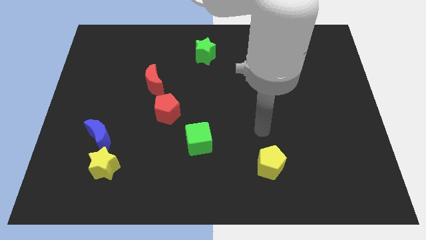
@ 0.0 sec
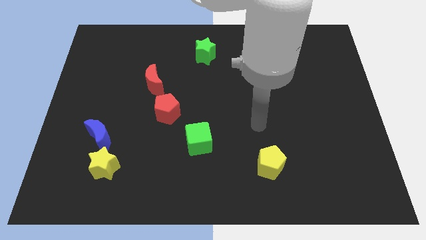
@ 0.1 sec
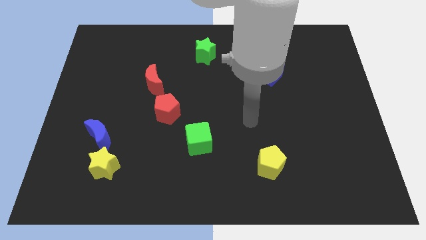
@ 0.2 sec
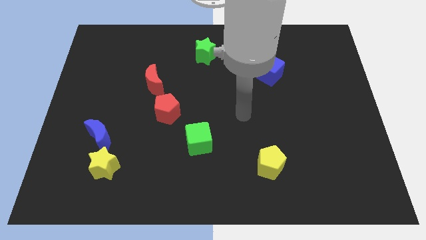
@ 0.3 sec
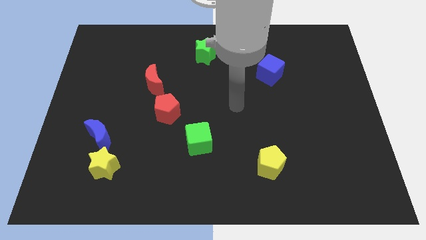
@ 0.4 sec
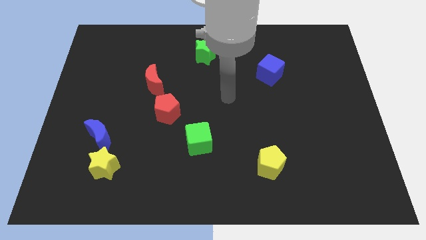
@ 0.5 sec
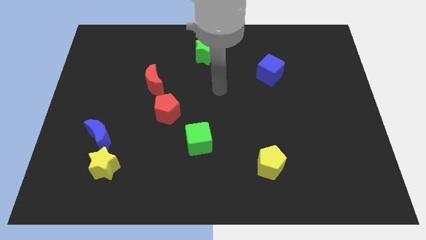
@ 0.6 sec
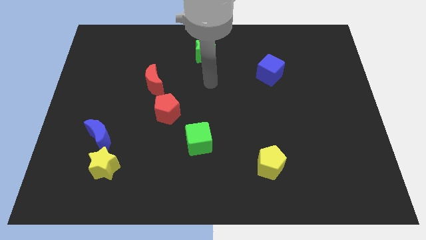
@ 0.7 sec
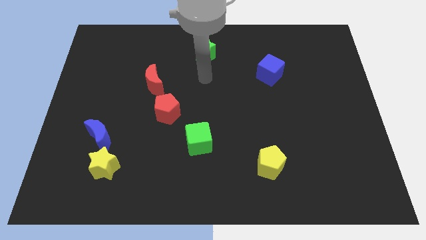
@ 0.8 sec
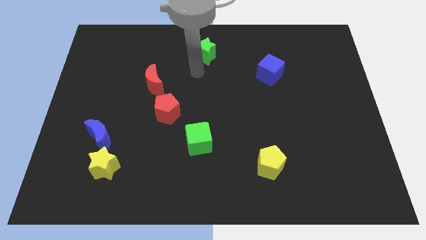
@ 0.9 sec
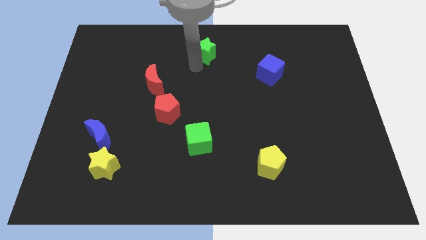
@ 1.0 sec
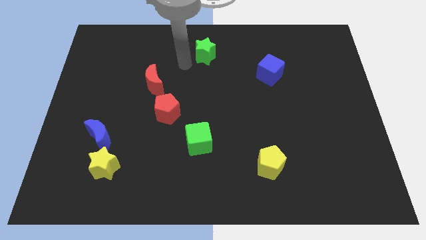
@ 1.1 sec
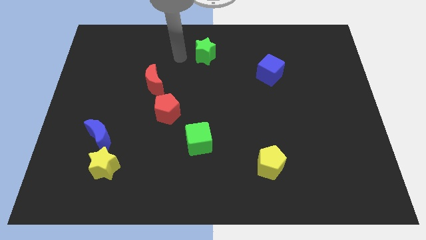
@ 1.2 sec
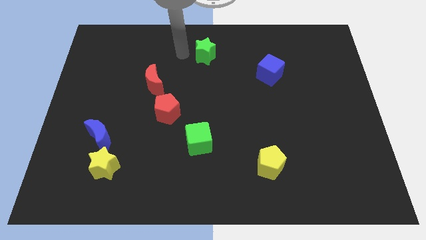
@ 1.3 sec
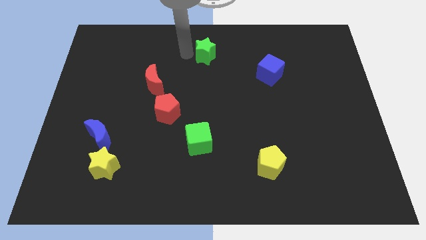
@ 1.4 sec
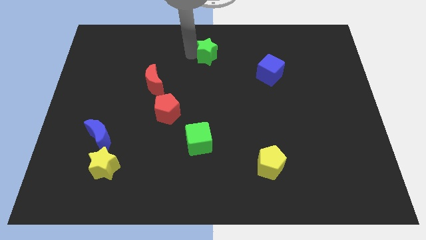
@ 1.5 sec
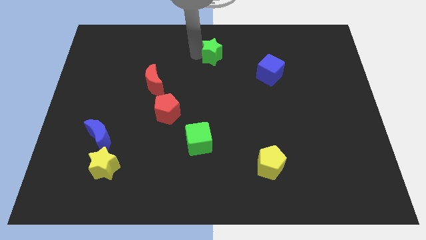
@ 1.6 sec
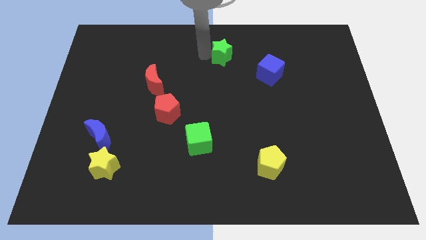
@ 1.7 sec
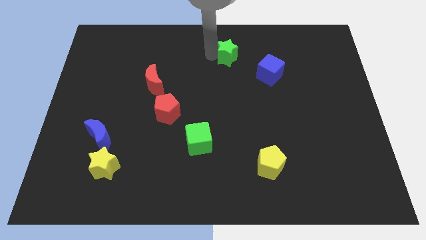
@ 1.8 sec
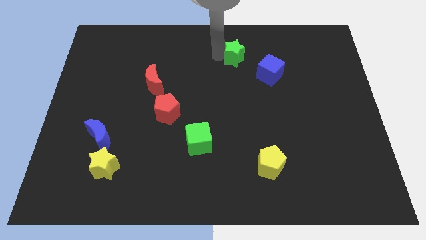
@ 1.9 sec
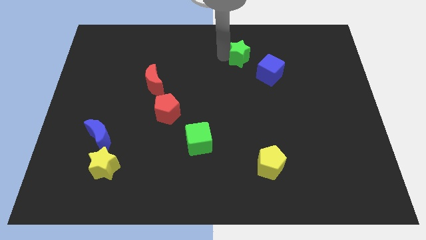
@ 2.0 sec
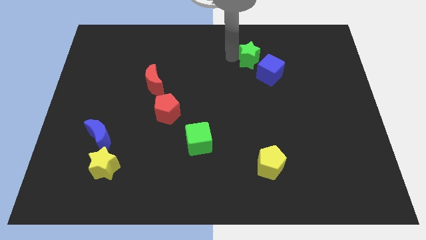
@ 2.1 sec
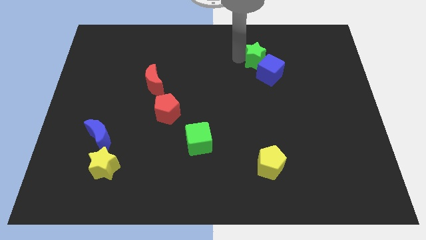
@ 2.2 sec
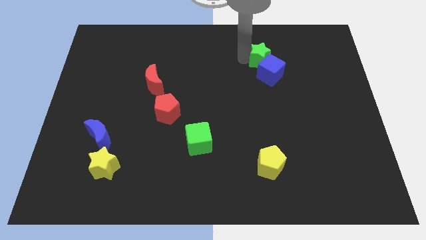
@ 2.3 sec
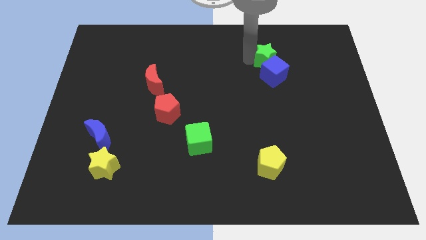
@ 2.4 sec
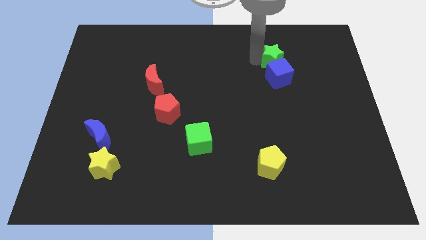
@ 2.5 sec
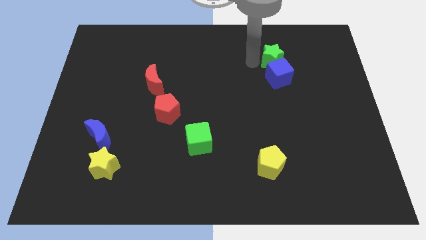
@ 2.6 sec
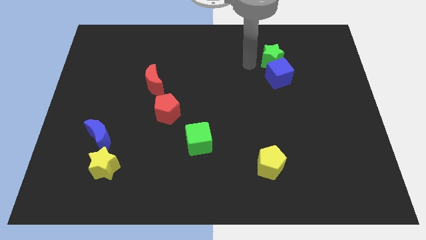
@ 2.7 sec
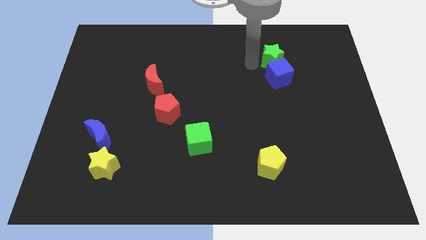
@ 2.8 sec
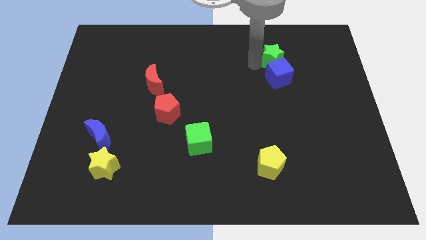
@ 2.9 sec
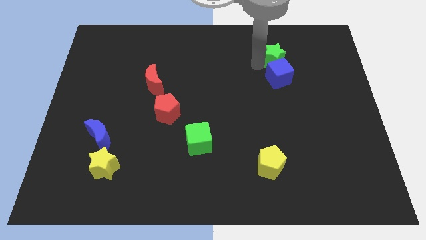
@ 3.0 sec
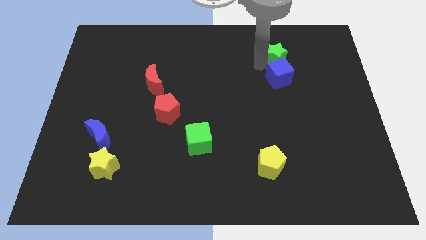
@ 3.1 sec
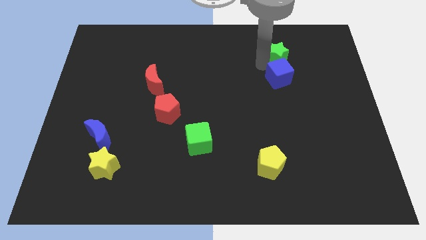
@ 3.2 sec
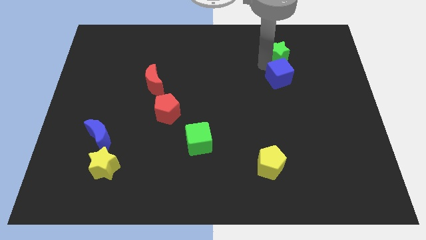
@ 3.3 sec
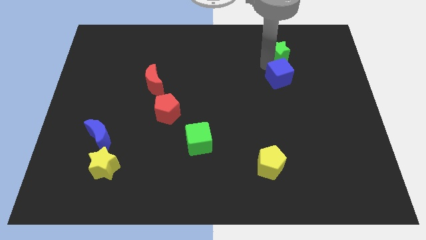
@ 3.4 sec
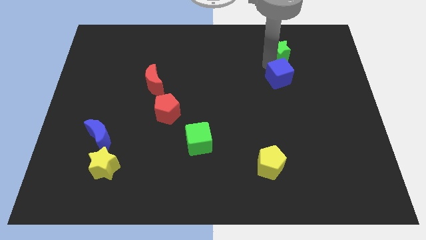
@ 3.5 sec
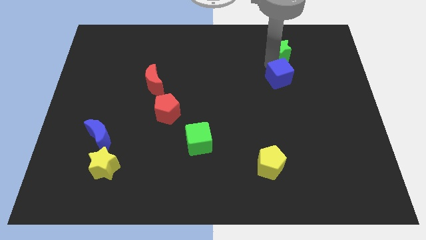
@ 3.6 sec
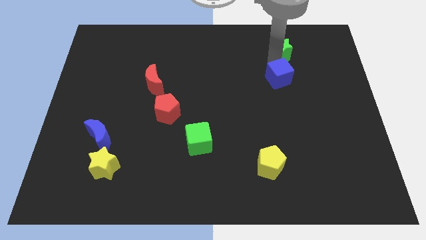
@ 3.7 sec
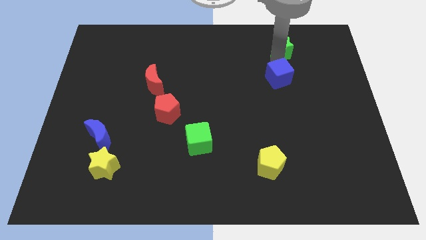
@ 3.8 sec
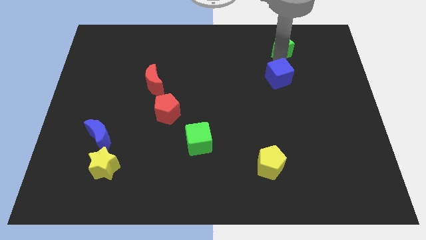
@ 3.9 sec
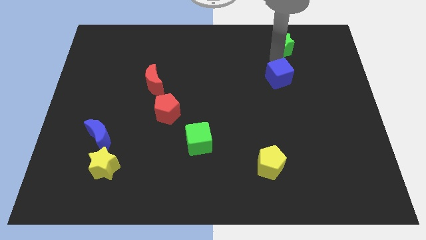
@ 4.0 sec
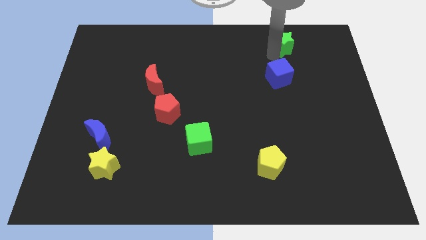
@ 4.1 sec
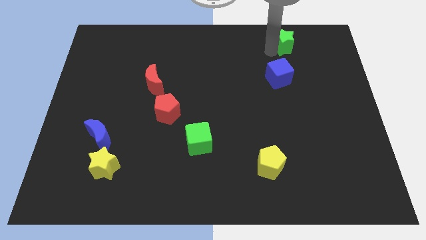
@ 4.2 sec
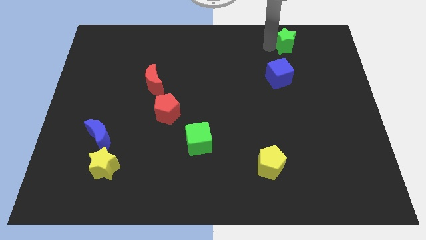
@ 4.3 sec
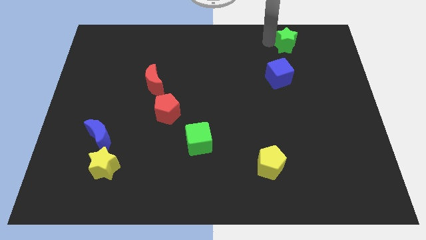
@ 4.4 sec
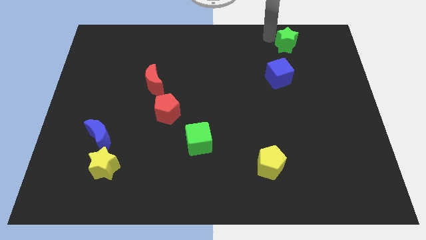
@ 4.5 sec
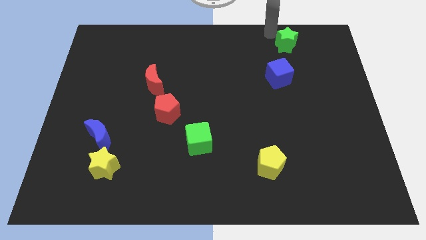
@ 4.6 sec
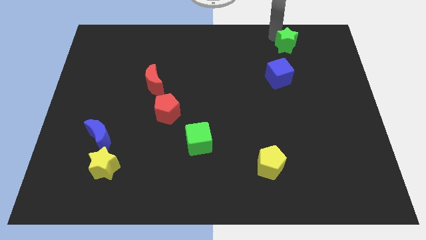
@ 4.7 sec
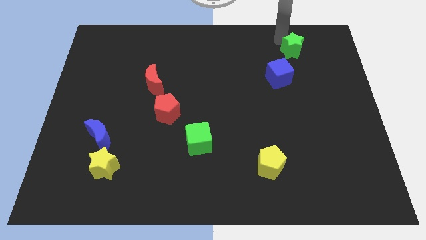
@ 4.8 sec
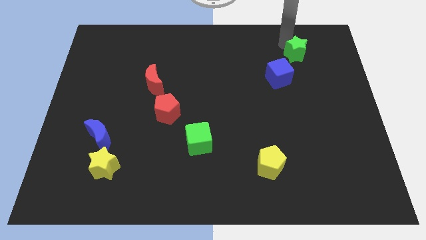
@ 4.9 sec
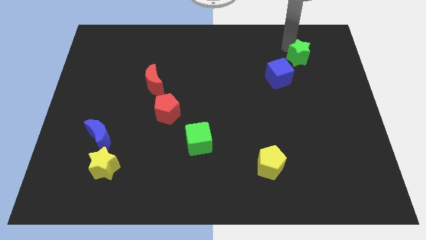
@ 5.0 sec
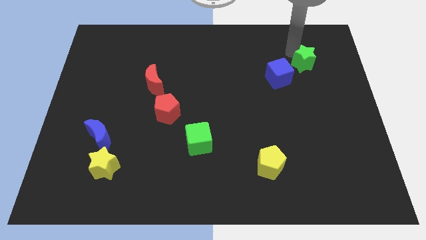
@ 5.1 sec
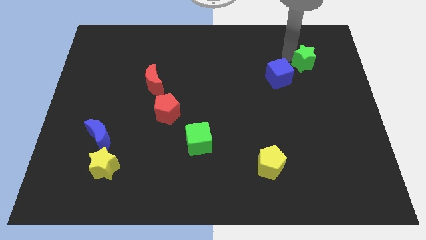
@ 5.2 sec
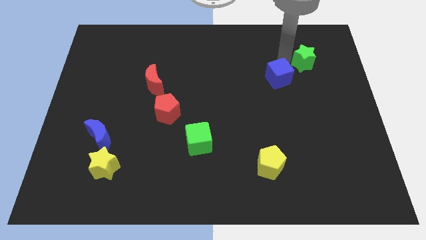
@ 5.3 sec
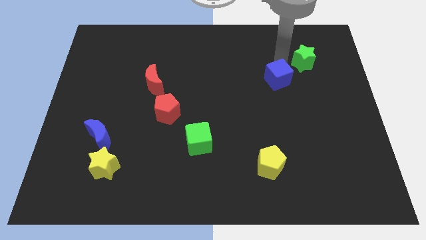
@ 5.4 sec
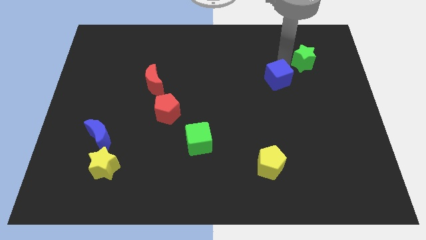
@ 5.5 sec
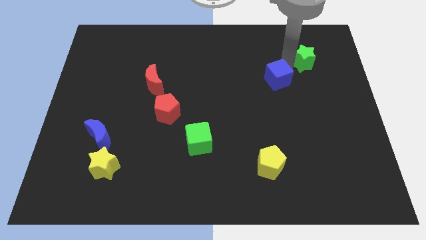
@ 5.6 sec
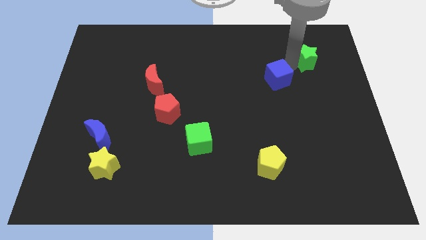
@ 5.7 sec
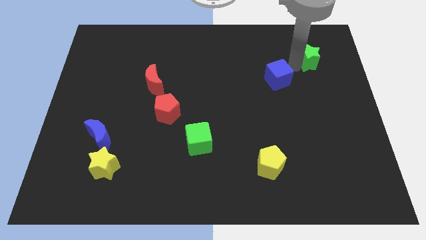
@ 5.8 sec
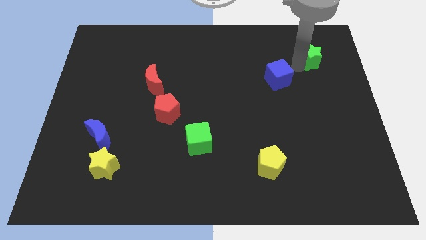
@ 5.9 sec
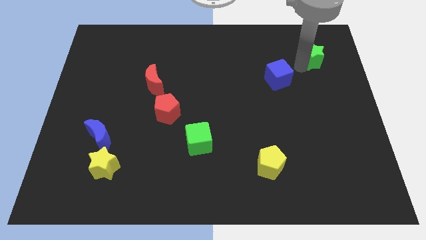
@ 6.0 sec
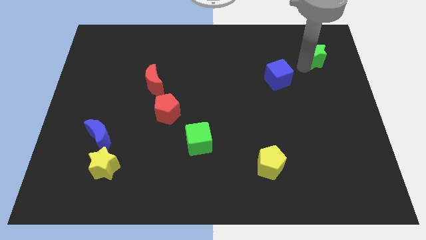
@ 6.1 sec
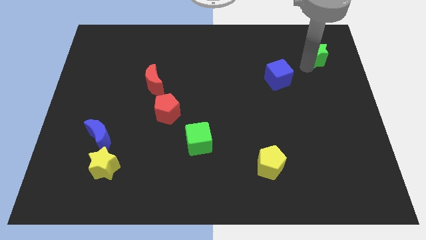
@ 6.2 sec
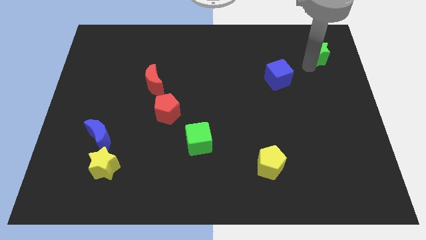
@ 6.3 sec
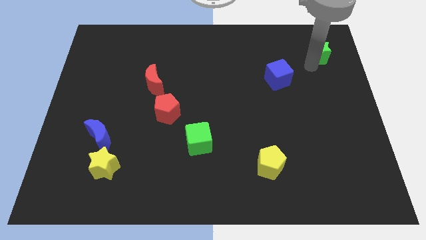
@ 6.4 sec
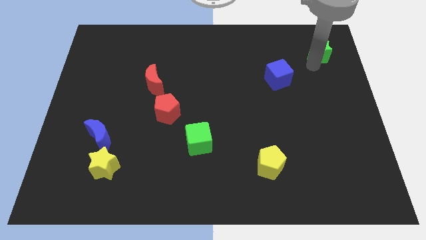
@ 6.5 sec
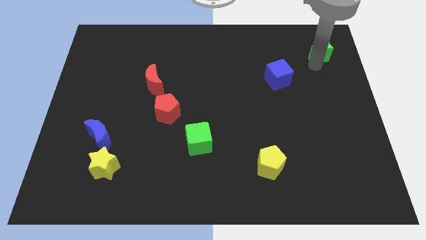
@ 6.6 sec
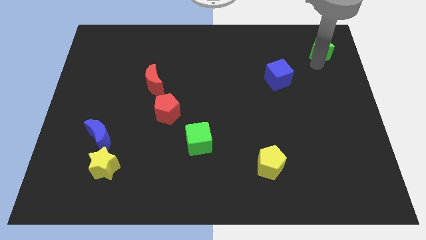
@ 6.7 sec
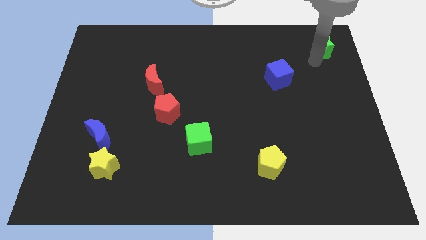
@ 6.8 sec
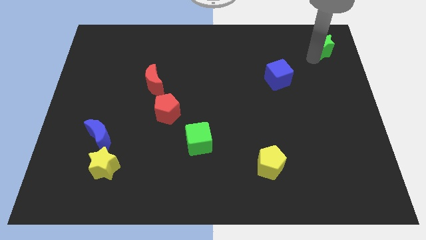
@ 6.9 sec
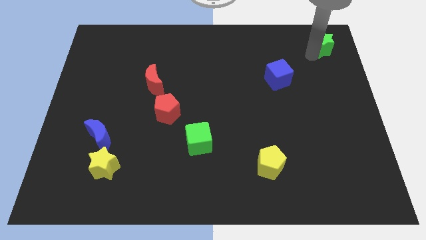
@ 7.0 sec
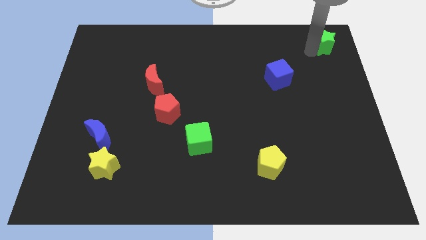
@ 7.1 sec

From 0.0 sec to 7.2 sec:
slide the green star to the top right
